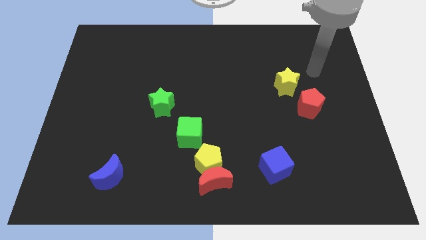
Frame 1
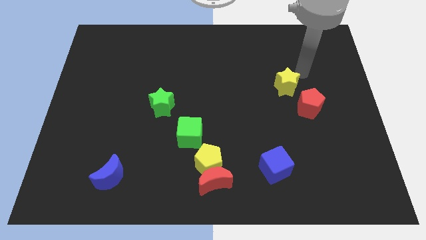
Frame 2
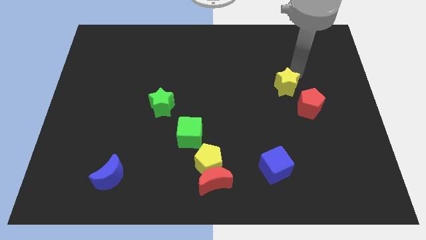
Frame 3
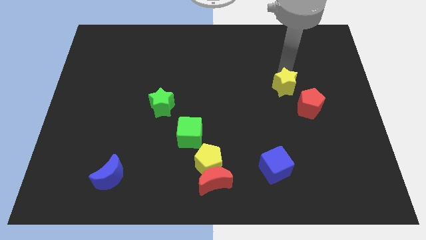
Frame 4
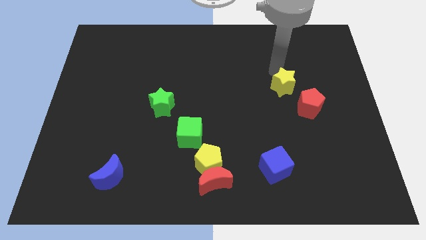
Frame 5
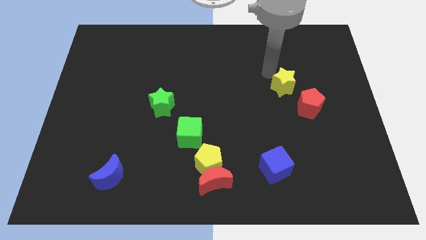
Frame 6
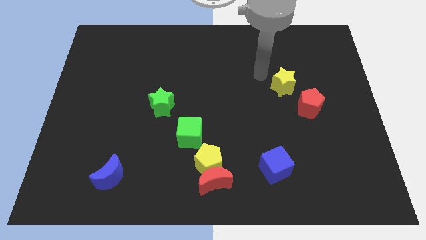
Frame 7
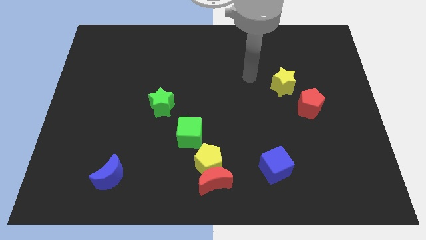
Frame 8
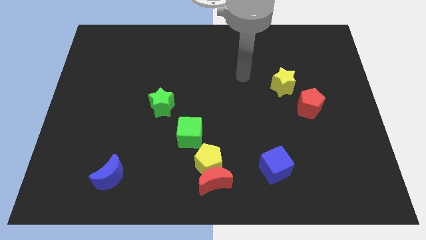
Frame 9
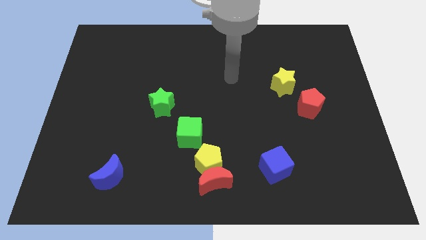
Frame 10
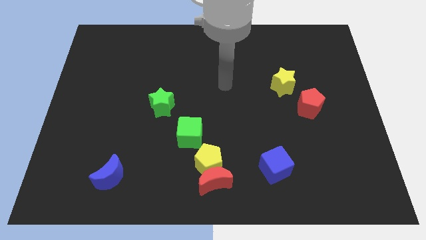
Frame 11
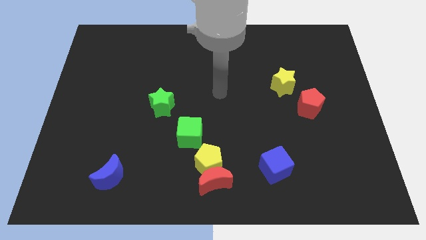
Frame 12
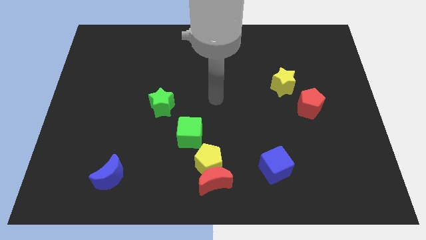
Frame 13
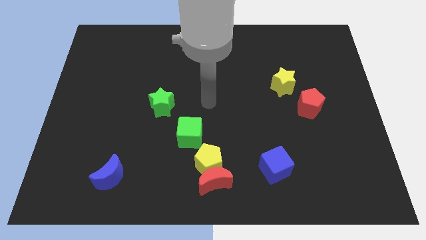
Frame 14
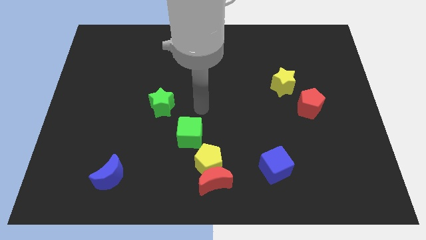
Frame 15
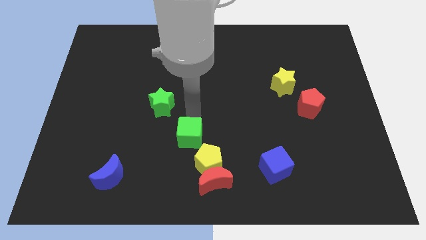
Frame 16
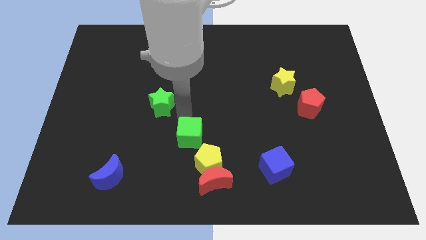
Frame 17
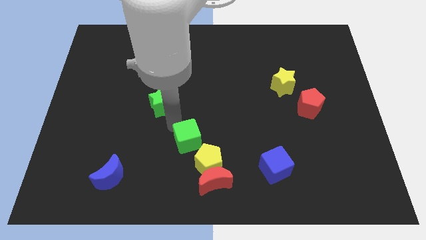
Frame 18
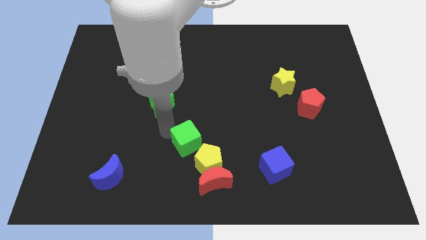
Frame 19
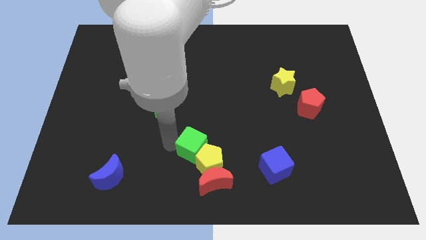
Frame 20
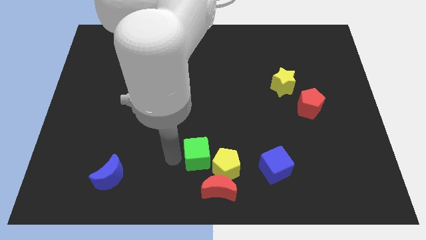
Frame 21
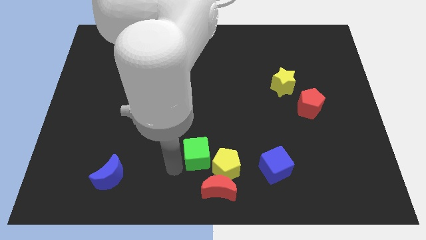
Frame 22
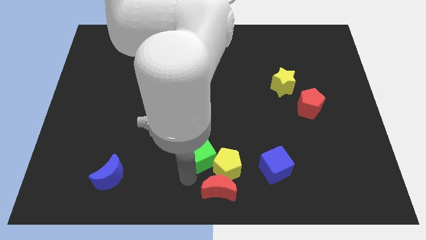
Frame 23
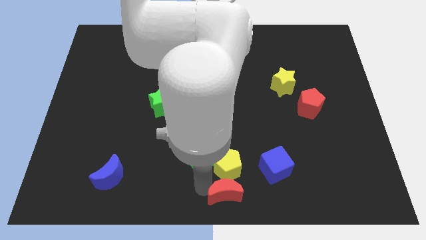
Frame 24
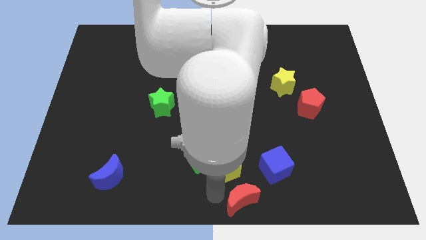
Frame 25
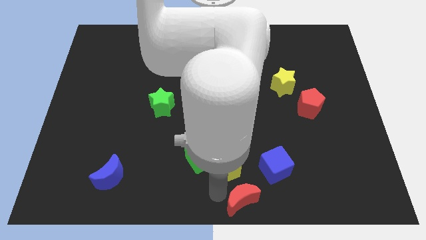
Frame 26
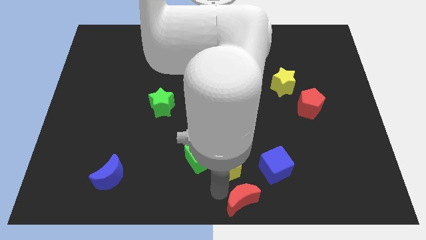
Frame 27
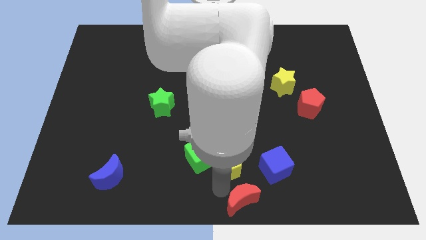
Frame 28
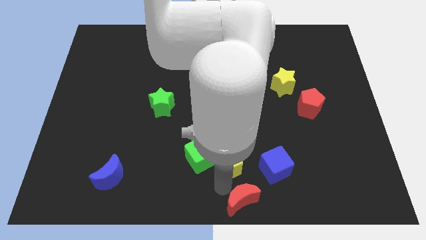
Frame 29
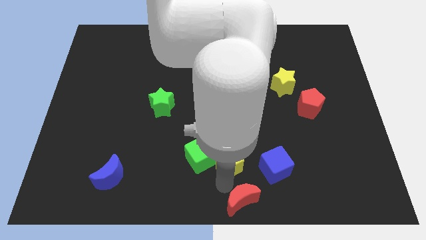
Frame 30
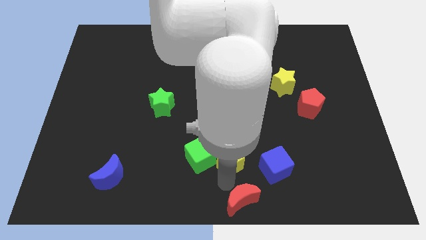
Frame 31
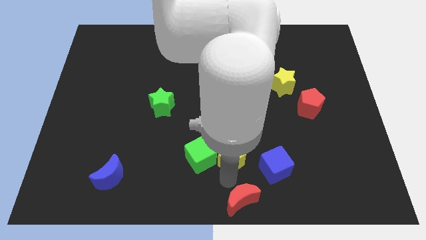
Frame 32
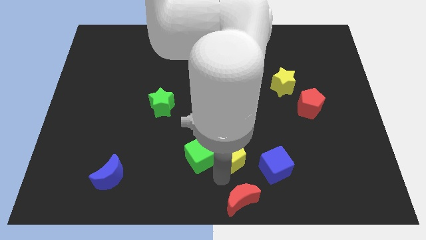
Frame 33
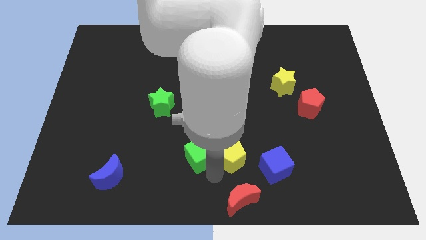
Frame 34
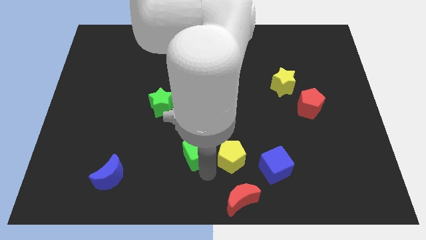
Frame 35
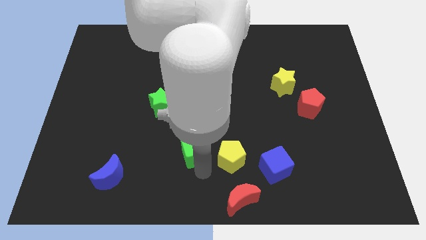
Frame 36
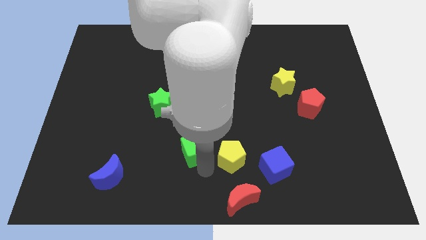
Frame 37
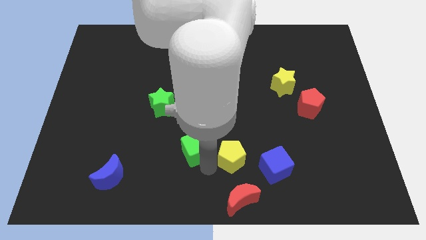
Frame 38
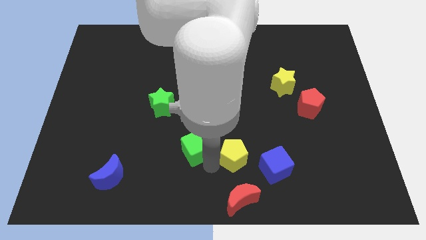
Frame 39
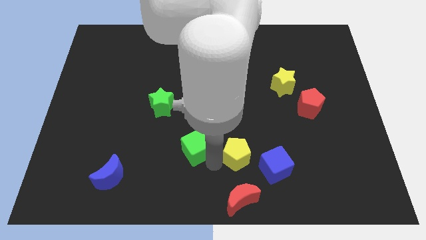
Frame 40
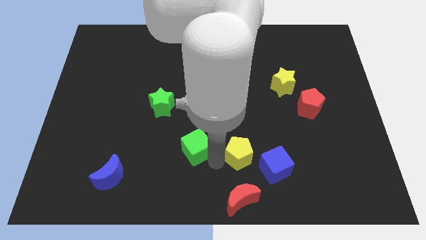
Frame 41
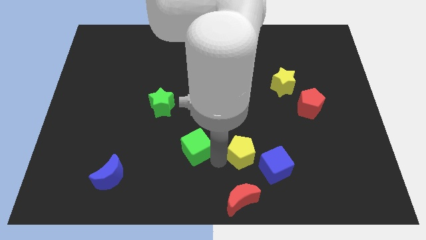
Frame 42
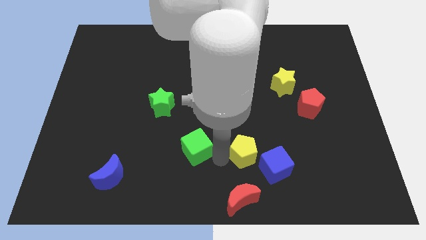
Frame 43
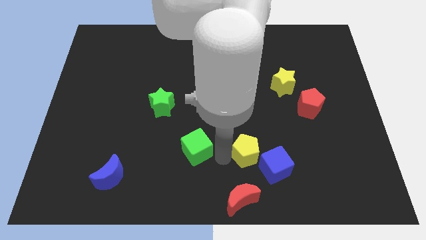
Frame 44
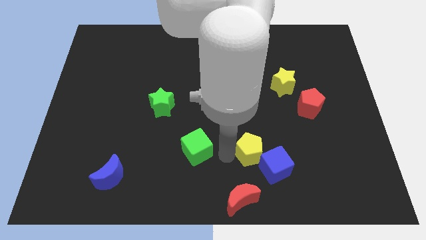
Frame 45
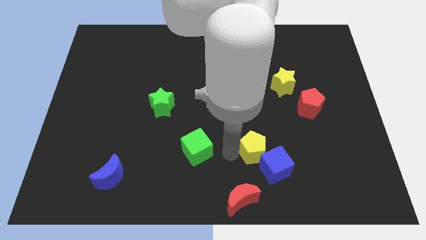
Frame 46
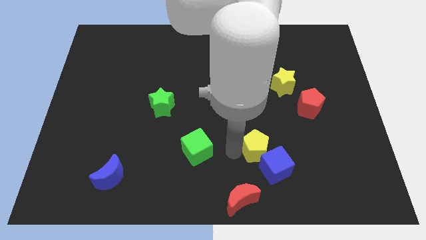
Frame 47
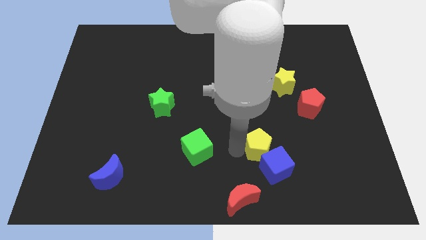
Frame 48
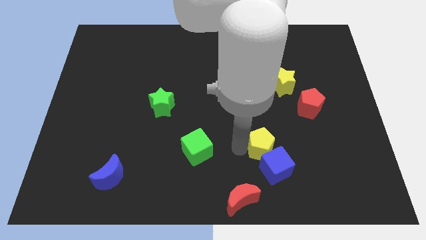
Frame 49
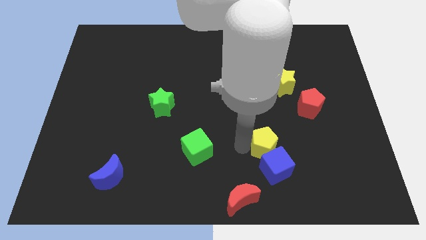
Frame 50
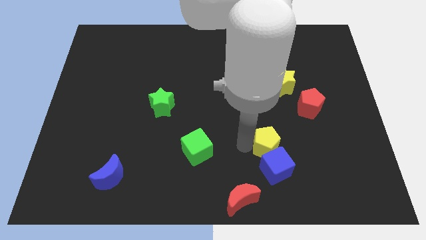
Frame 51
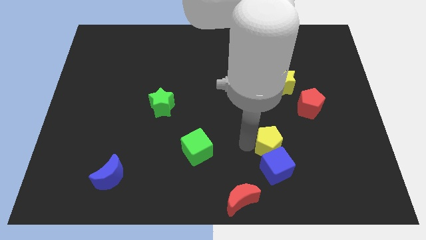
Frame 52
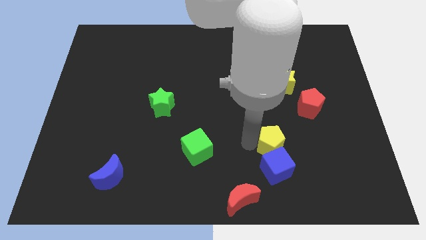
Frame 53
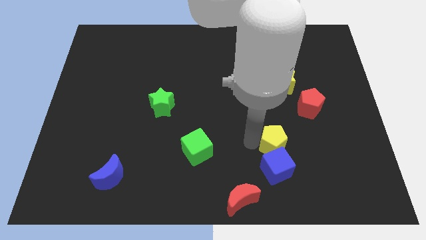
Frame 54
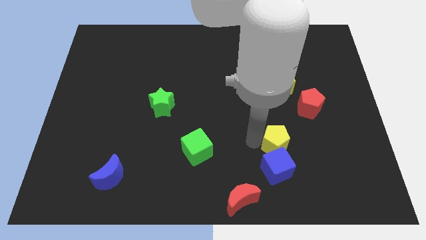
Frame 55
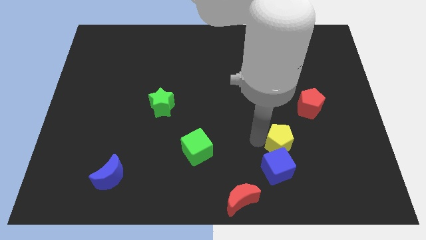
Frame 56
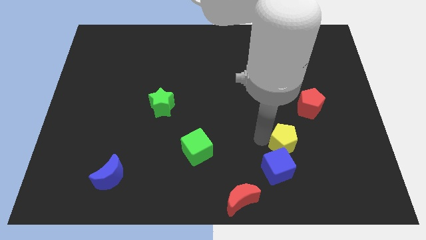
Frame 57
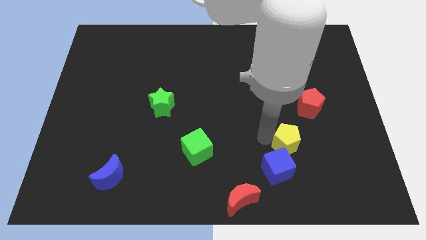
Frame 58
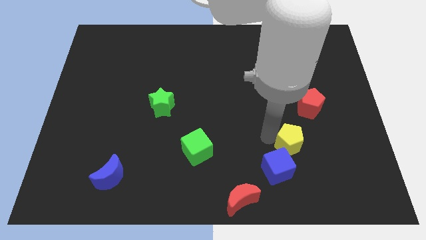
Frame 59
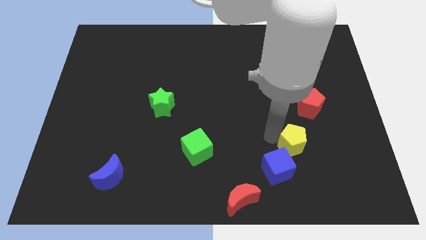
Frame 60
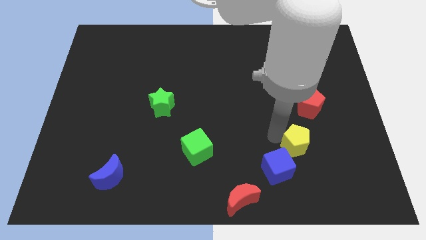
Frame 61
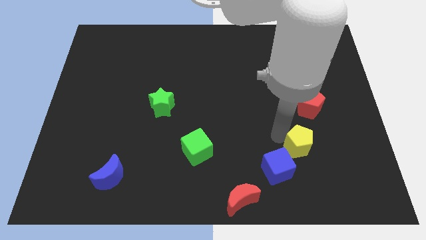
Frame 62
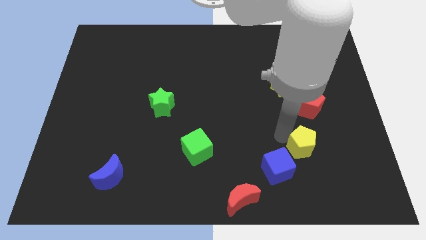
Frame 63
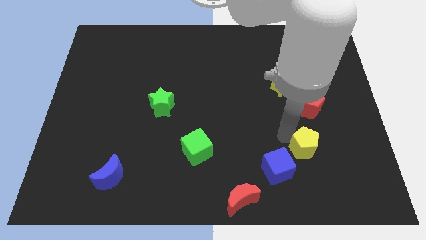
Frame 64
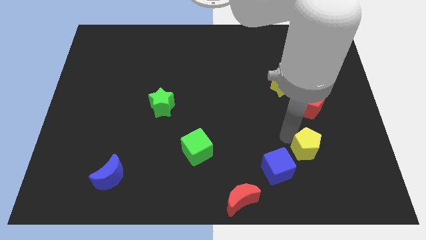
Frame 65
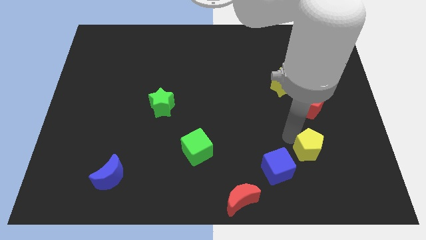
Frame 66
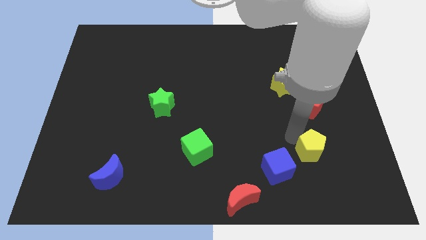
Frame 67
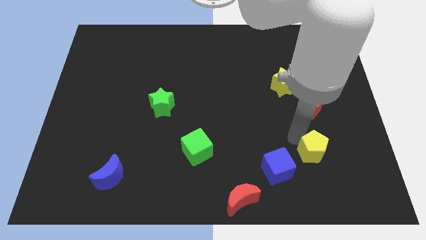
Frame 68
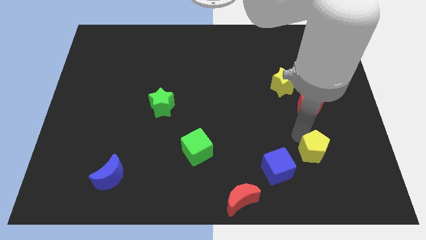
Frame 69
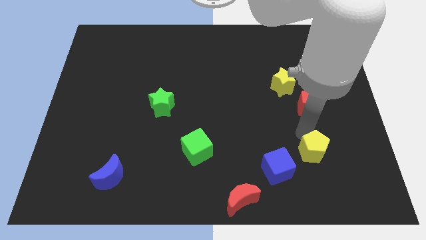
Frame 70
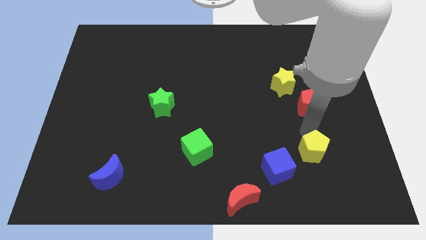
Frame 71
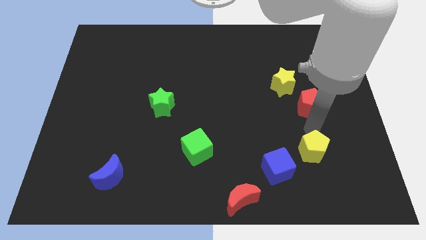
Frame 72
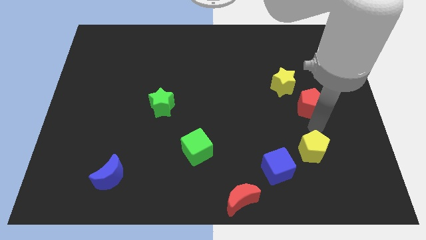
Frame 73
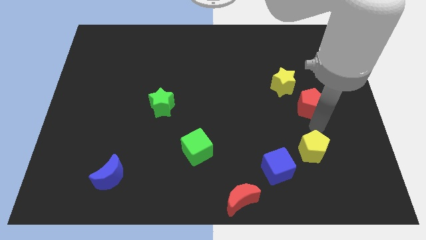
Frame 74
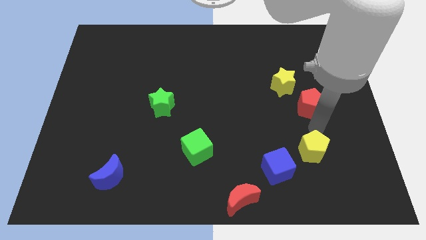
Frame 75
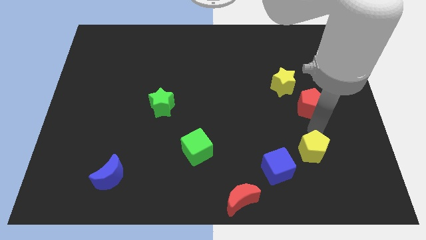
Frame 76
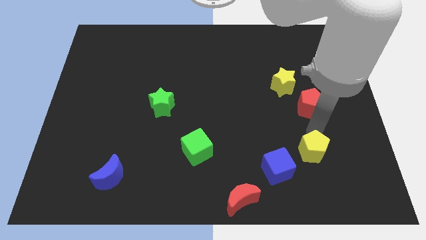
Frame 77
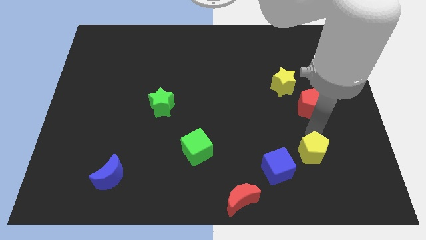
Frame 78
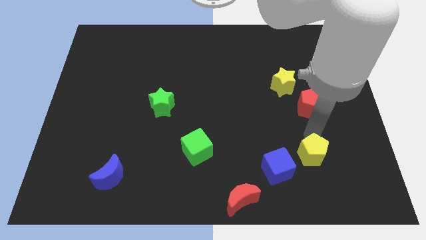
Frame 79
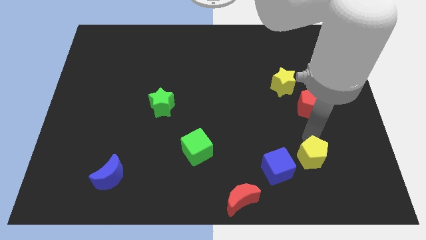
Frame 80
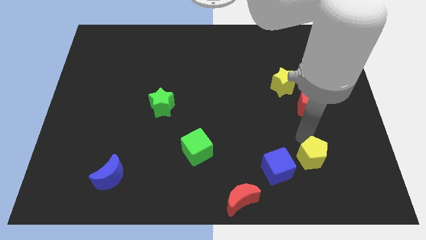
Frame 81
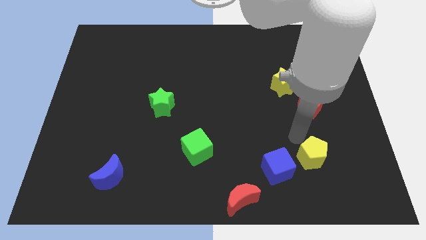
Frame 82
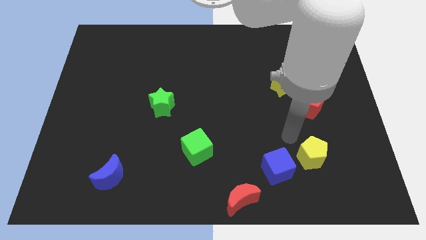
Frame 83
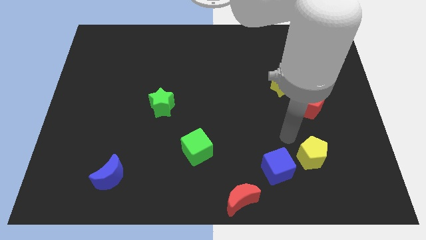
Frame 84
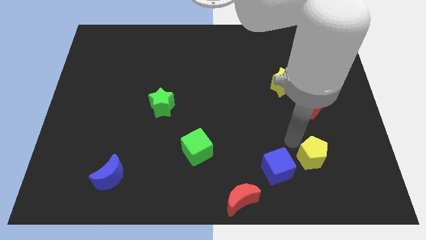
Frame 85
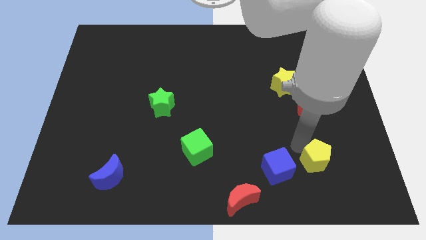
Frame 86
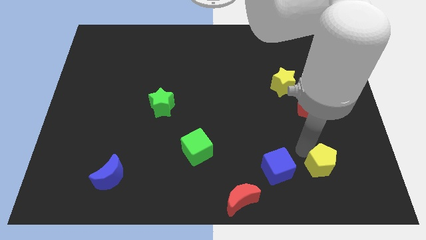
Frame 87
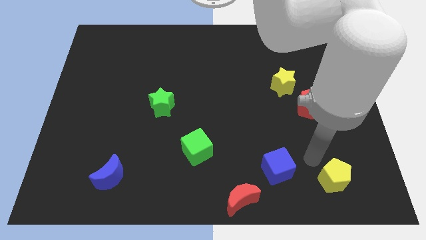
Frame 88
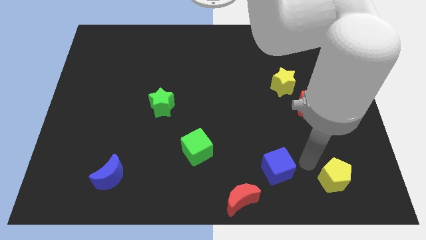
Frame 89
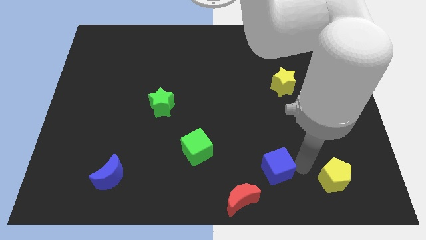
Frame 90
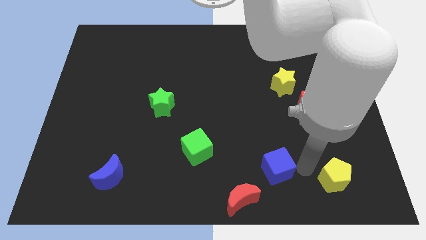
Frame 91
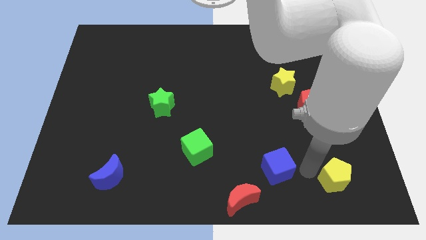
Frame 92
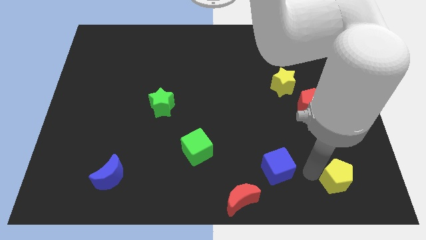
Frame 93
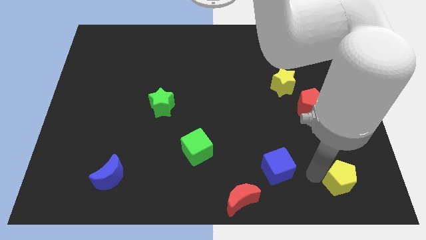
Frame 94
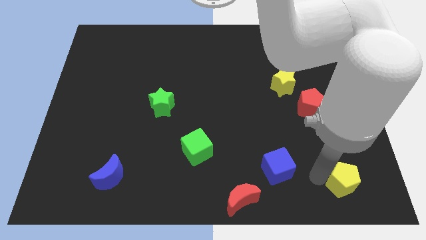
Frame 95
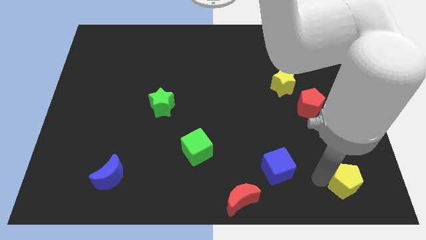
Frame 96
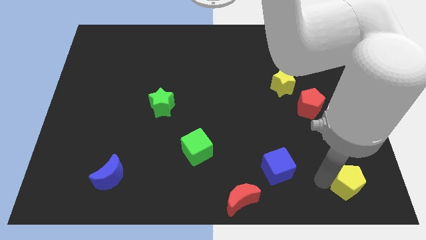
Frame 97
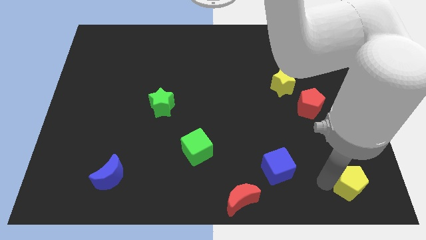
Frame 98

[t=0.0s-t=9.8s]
move the yellow pentagon to the bottom right of the board
